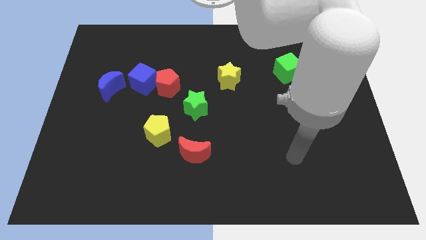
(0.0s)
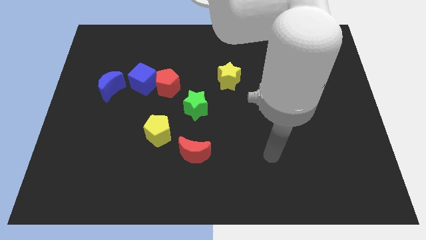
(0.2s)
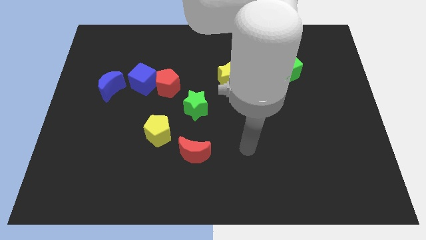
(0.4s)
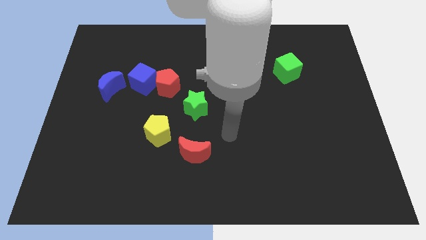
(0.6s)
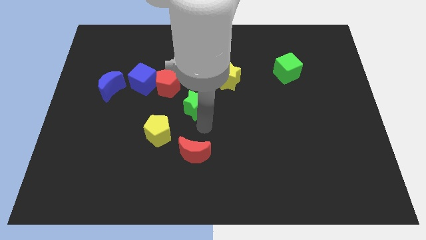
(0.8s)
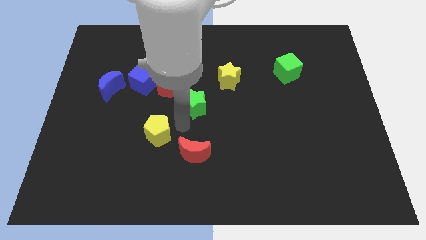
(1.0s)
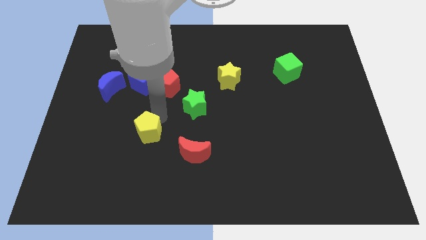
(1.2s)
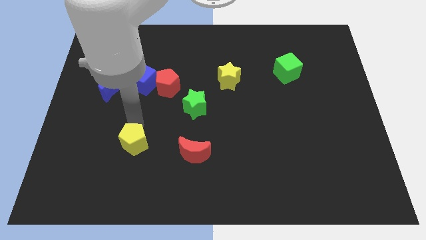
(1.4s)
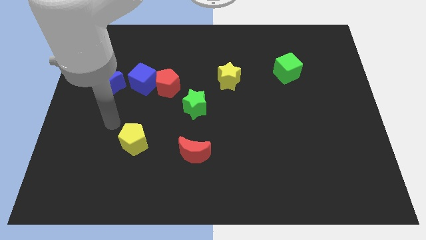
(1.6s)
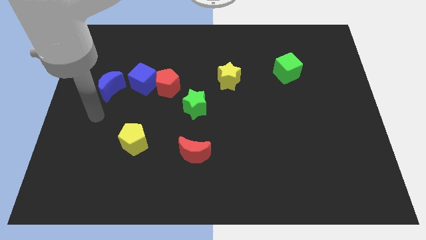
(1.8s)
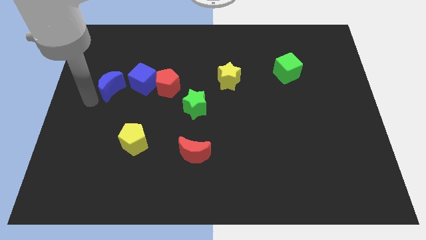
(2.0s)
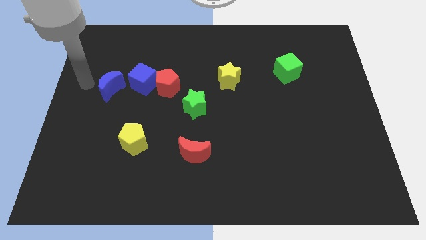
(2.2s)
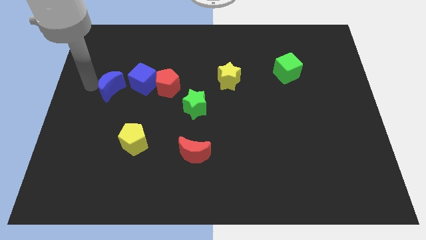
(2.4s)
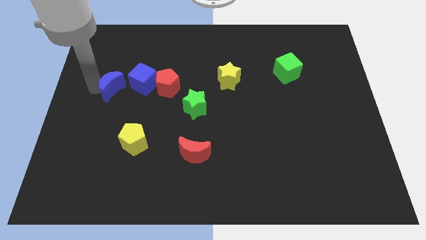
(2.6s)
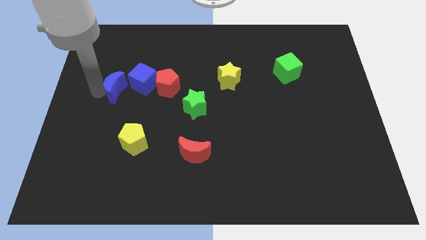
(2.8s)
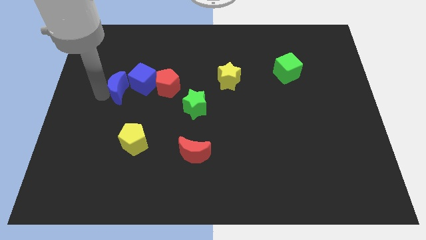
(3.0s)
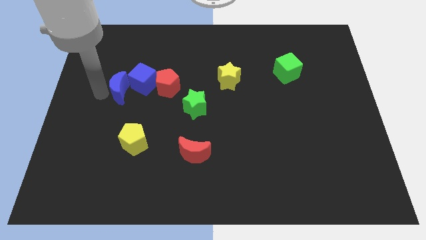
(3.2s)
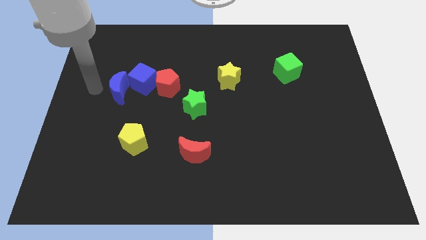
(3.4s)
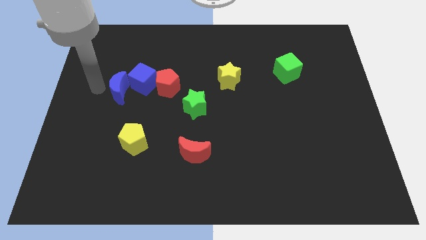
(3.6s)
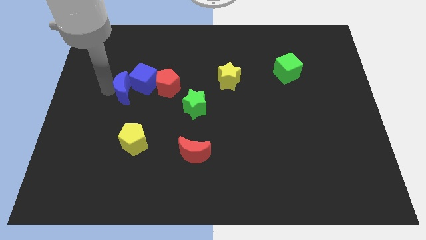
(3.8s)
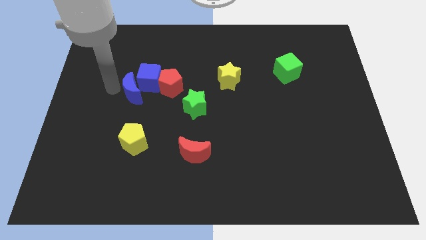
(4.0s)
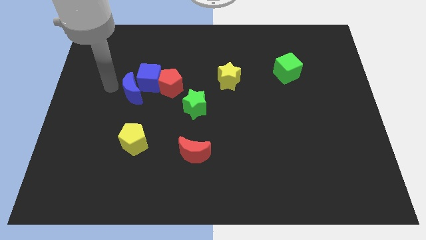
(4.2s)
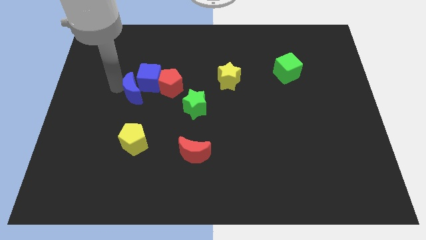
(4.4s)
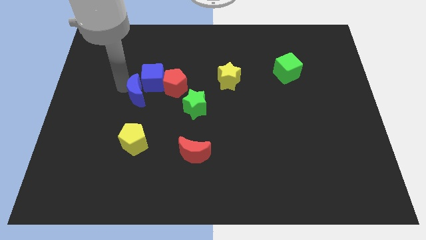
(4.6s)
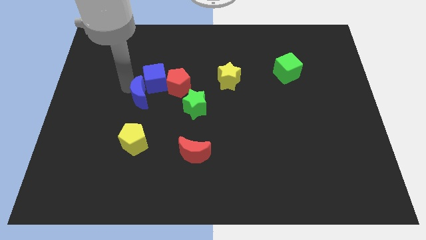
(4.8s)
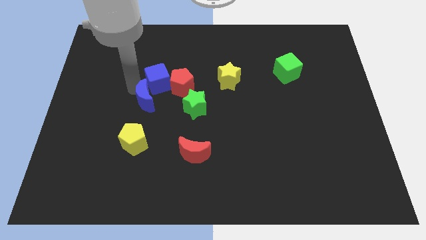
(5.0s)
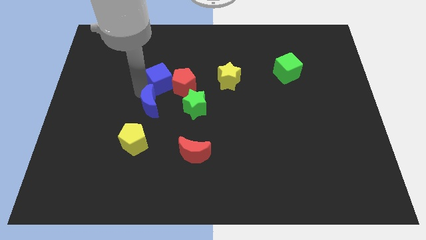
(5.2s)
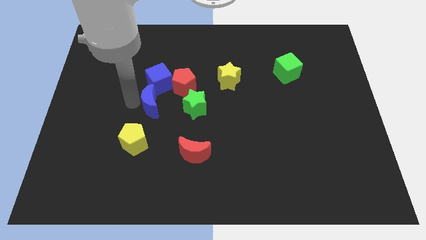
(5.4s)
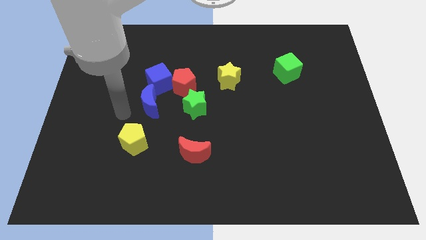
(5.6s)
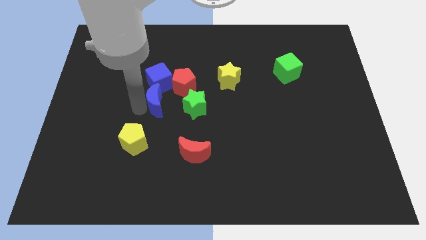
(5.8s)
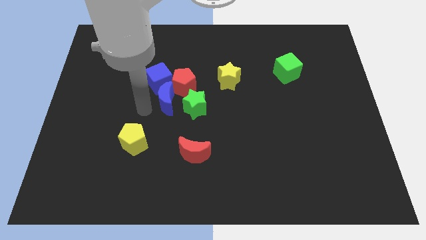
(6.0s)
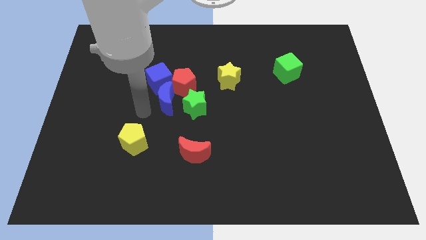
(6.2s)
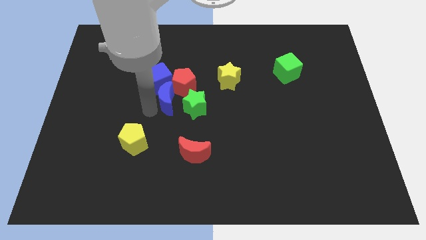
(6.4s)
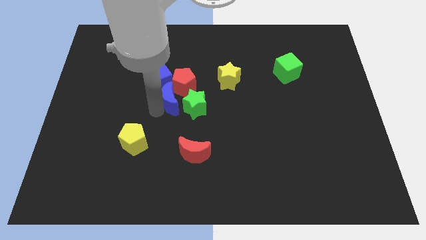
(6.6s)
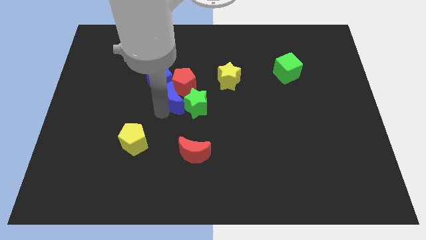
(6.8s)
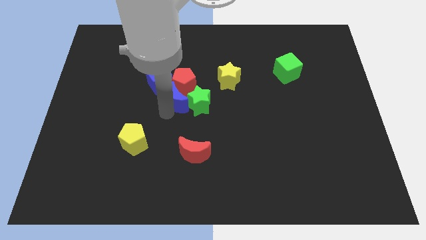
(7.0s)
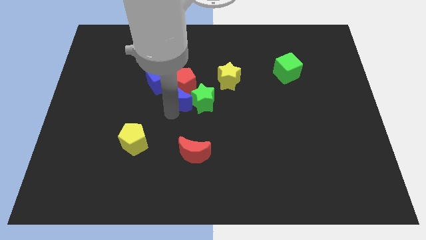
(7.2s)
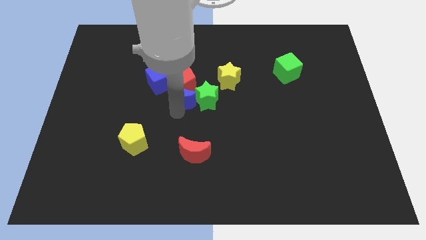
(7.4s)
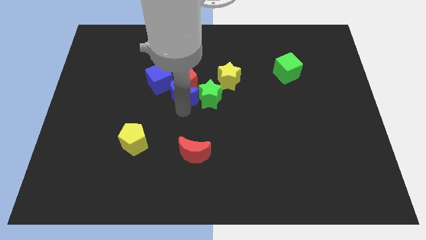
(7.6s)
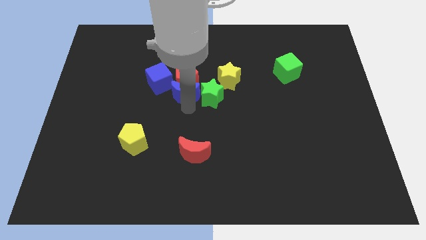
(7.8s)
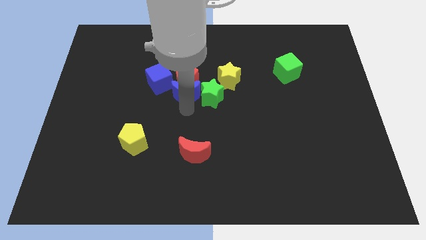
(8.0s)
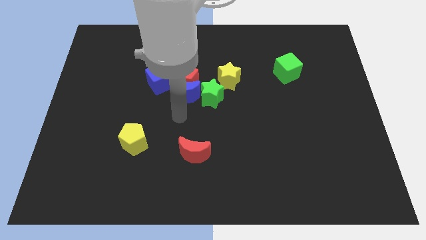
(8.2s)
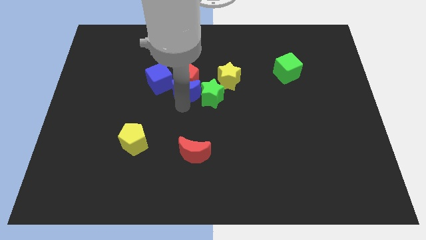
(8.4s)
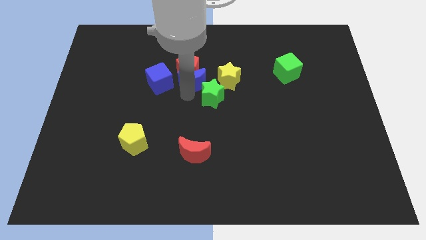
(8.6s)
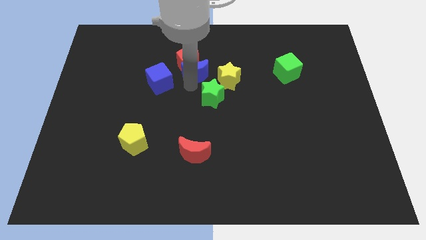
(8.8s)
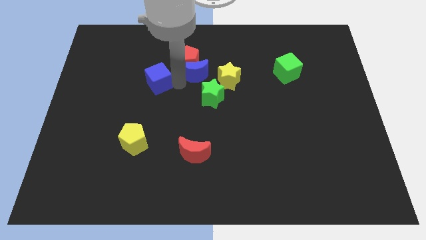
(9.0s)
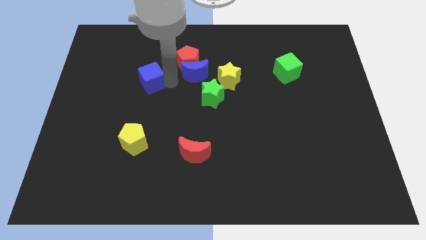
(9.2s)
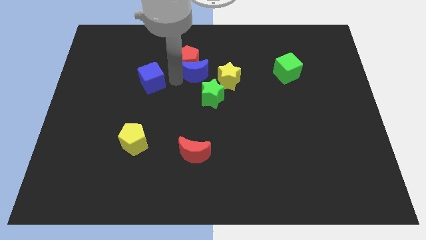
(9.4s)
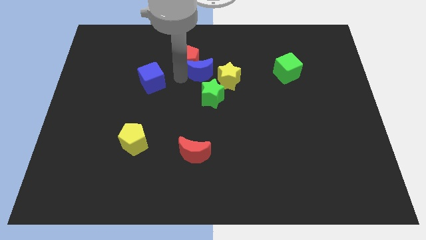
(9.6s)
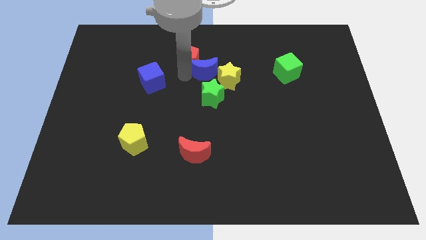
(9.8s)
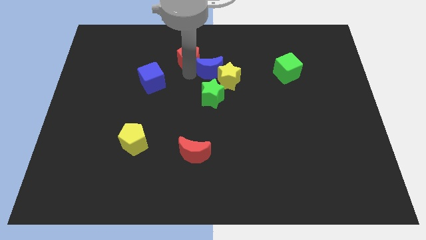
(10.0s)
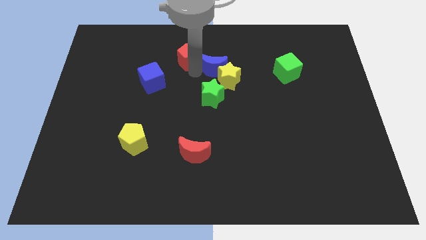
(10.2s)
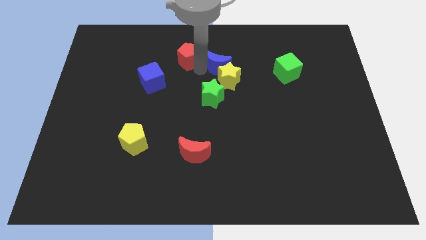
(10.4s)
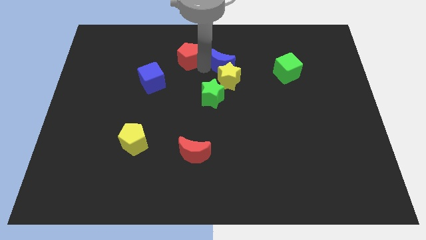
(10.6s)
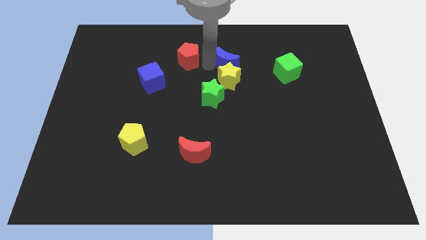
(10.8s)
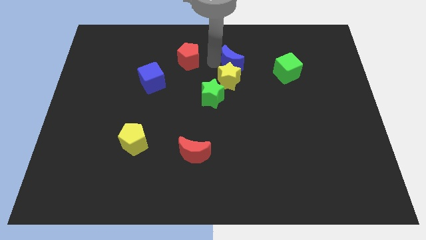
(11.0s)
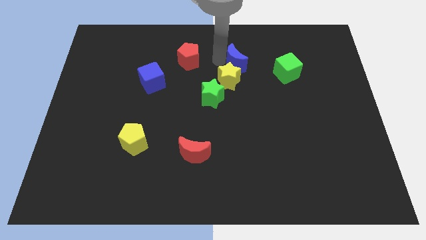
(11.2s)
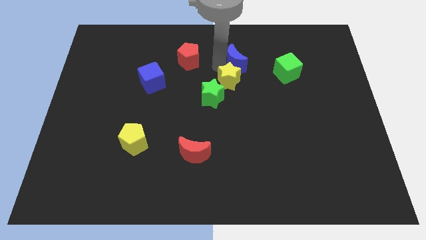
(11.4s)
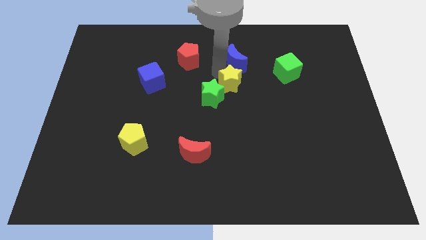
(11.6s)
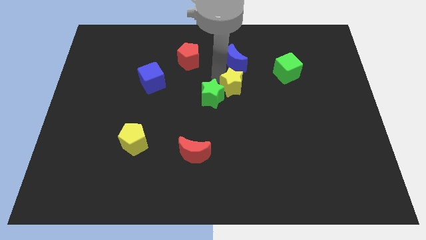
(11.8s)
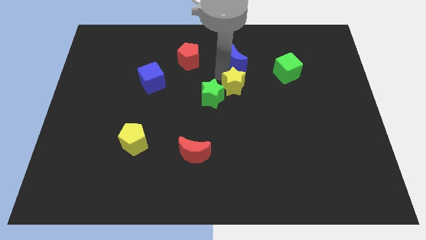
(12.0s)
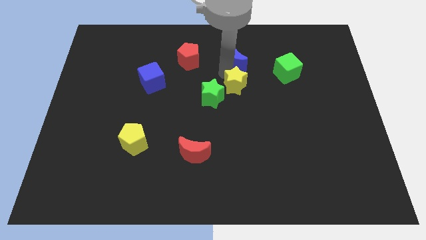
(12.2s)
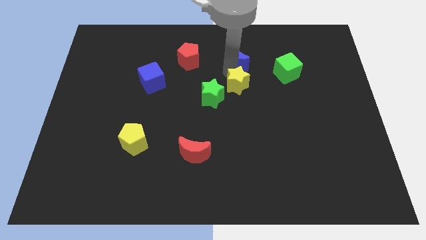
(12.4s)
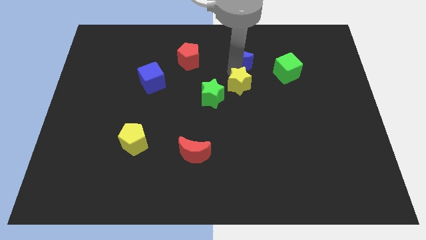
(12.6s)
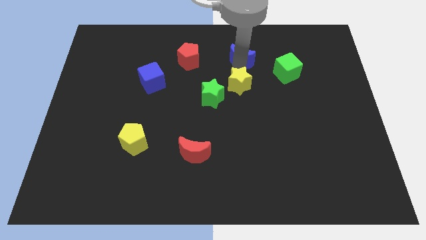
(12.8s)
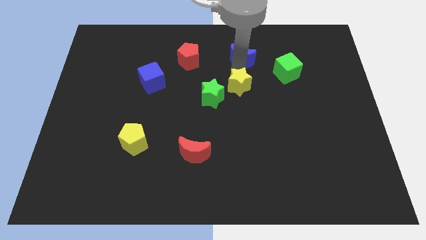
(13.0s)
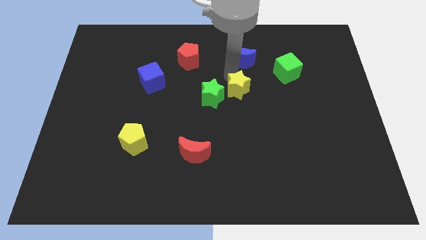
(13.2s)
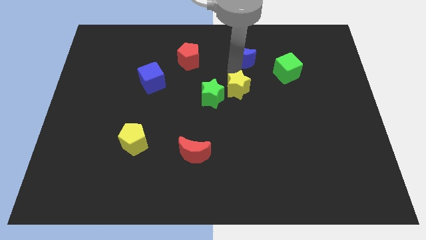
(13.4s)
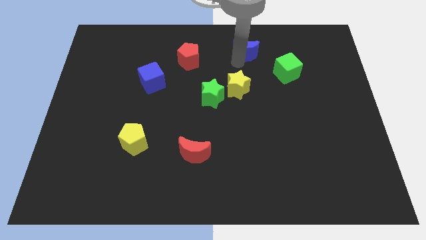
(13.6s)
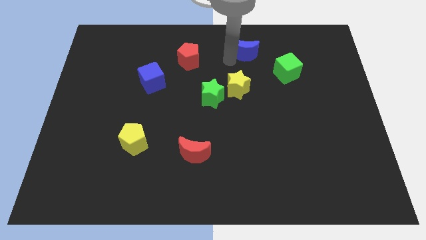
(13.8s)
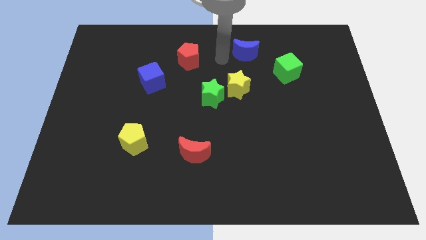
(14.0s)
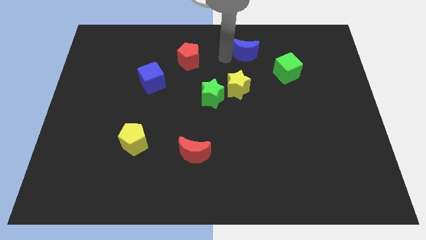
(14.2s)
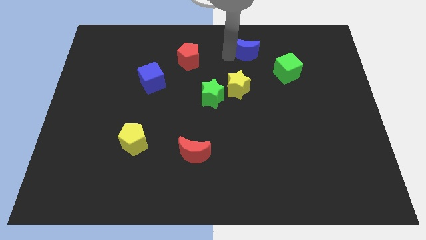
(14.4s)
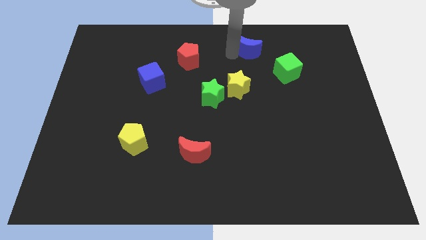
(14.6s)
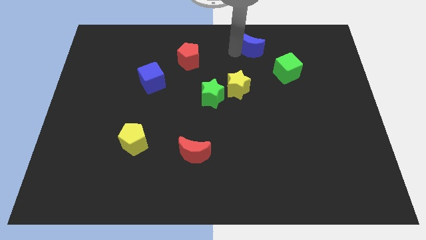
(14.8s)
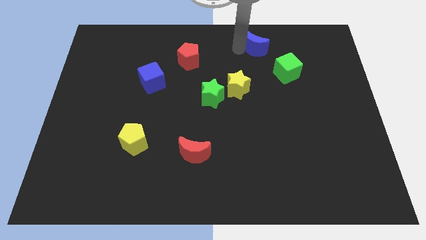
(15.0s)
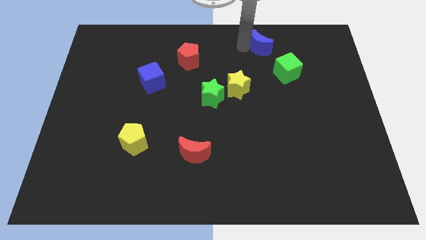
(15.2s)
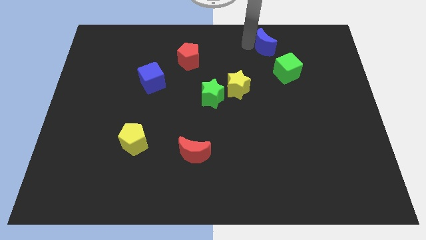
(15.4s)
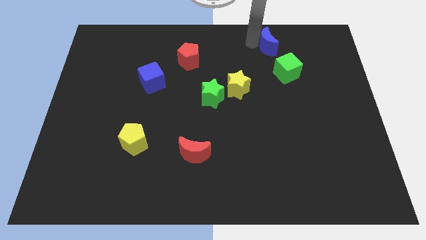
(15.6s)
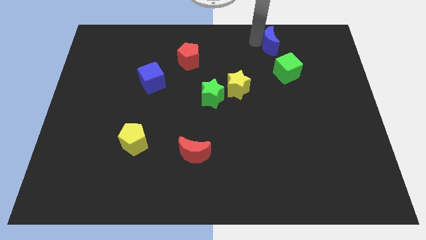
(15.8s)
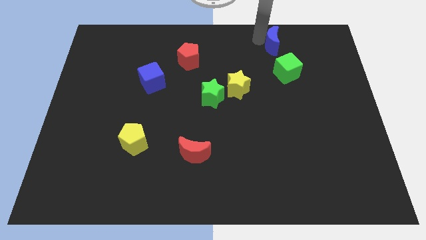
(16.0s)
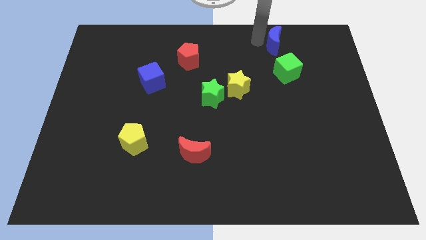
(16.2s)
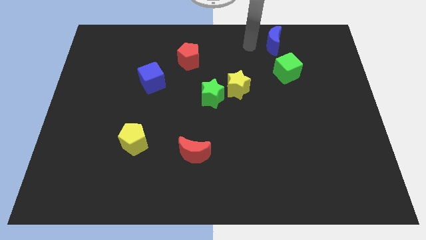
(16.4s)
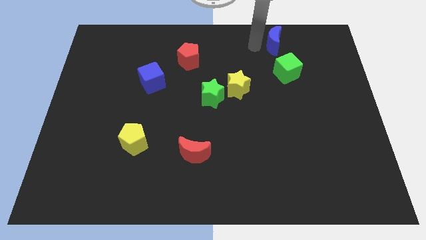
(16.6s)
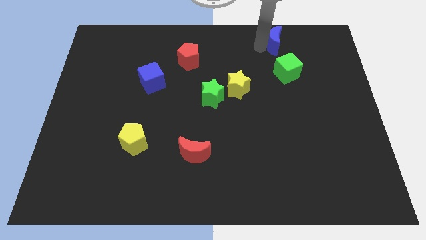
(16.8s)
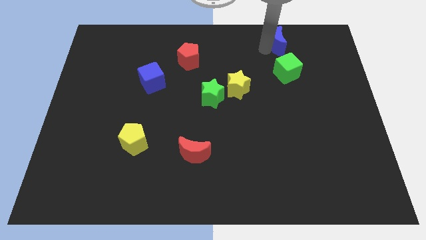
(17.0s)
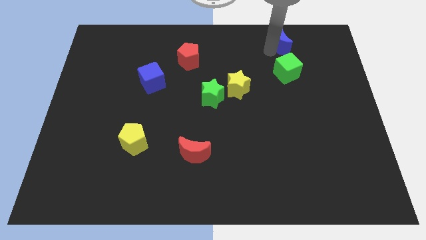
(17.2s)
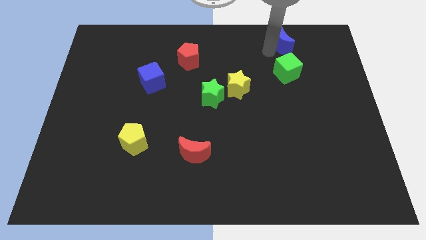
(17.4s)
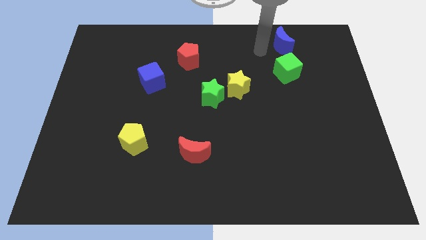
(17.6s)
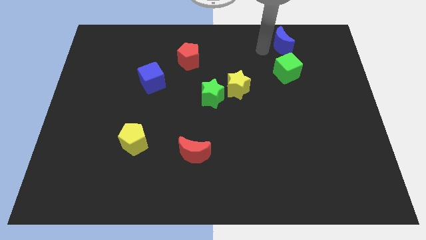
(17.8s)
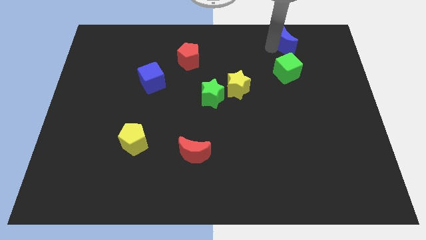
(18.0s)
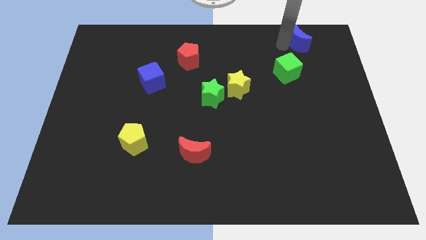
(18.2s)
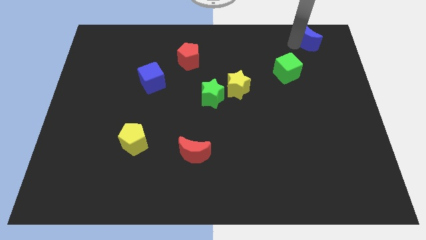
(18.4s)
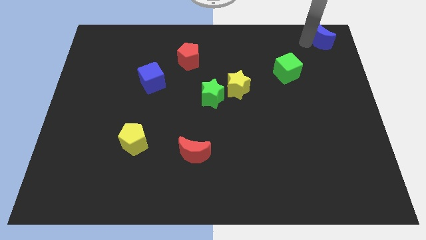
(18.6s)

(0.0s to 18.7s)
push the blue moon to the upper right corner
